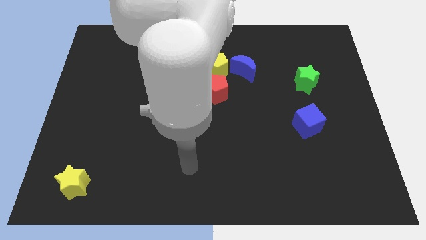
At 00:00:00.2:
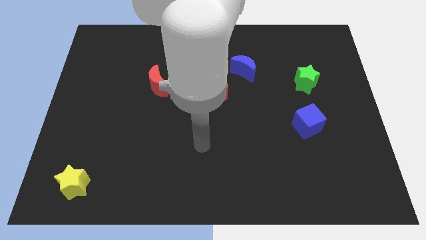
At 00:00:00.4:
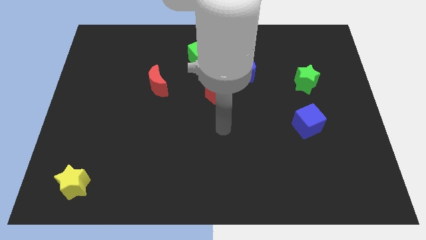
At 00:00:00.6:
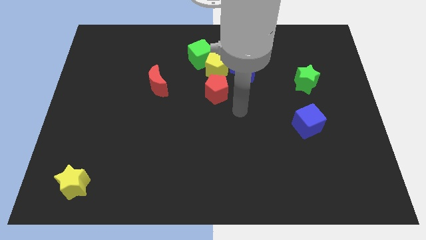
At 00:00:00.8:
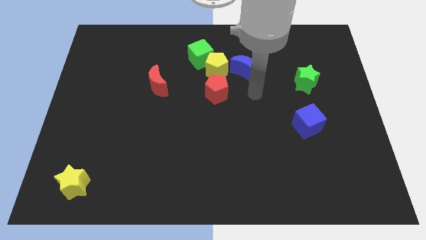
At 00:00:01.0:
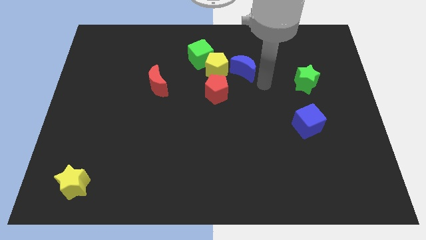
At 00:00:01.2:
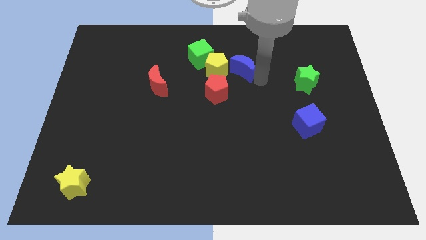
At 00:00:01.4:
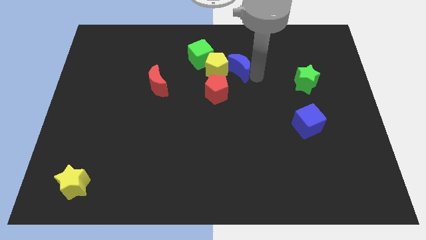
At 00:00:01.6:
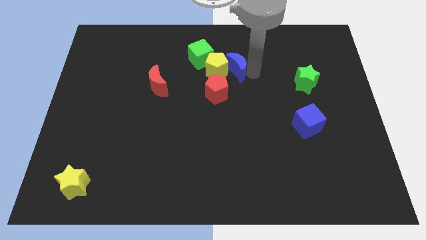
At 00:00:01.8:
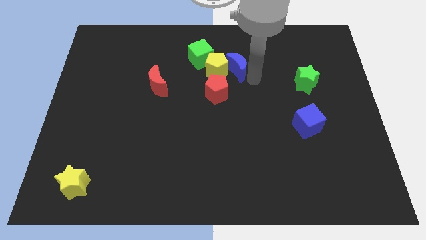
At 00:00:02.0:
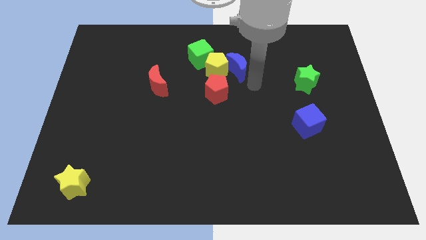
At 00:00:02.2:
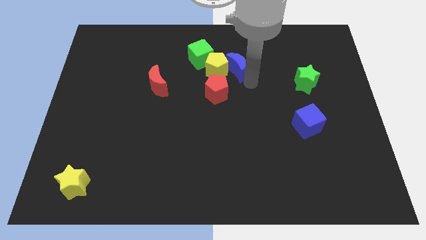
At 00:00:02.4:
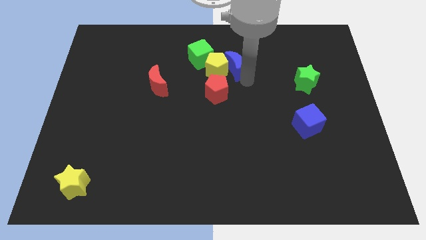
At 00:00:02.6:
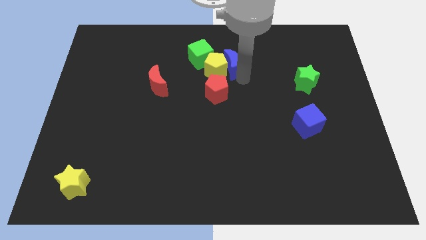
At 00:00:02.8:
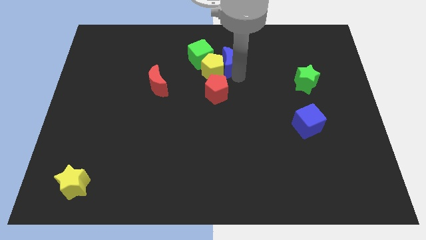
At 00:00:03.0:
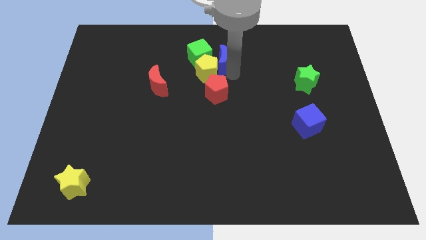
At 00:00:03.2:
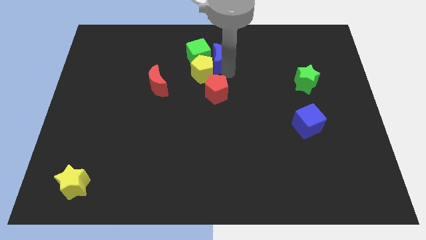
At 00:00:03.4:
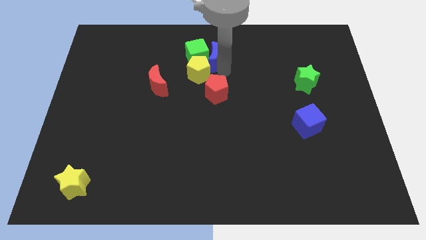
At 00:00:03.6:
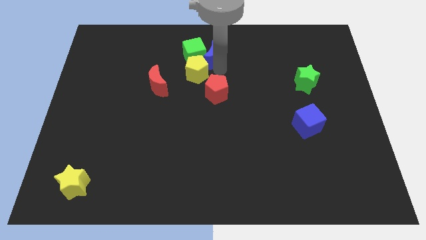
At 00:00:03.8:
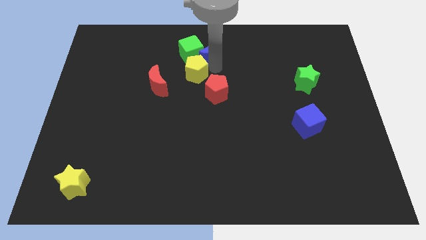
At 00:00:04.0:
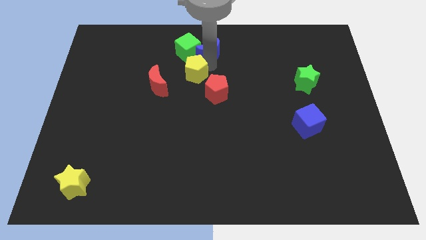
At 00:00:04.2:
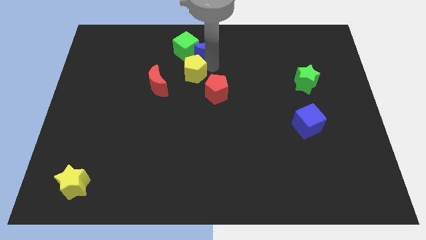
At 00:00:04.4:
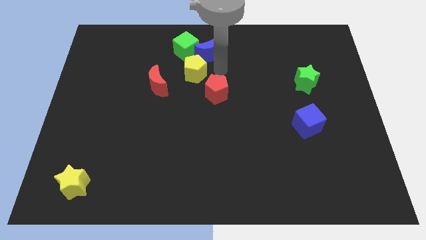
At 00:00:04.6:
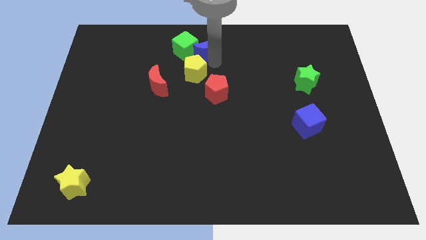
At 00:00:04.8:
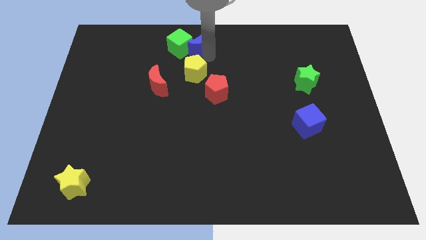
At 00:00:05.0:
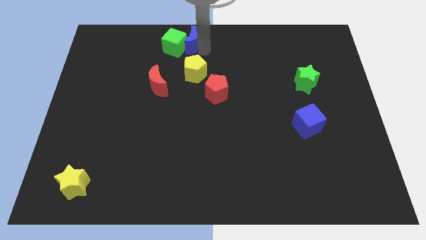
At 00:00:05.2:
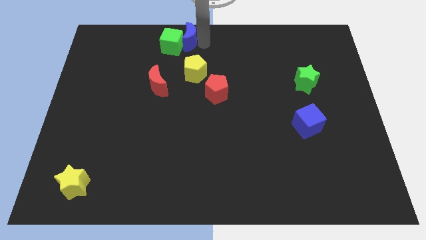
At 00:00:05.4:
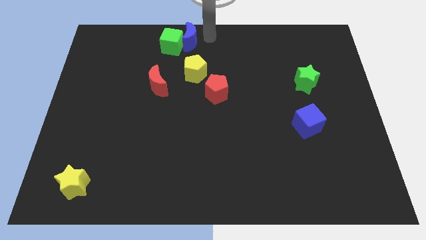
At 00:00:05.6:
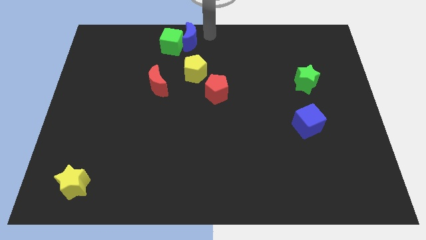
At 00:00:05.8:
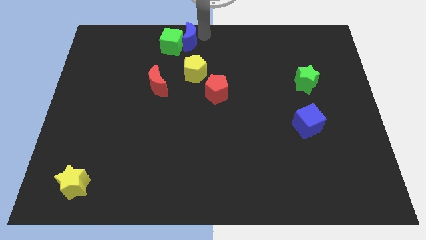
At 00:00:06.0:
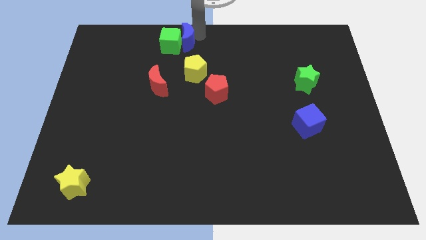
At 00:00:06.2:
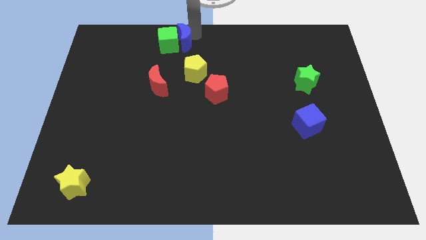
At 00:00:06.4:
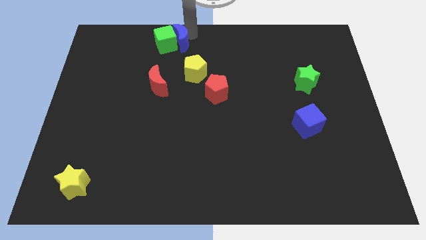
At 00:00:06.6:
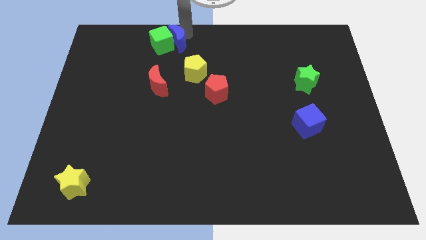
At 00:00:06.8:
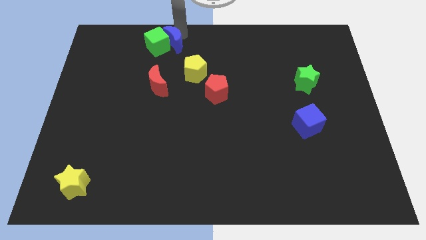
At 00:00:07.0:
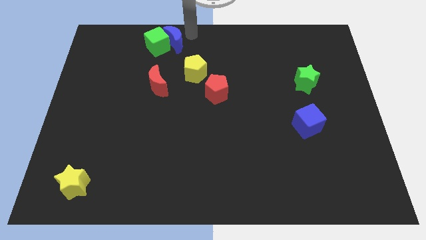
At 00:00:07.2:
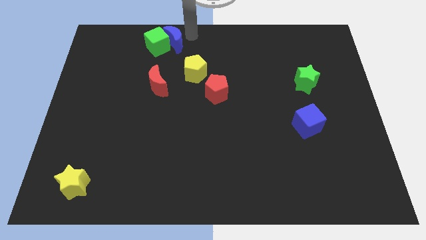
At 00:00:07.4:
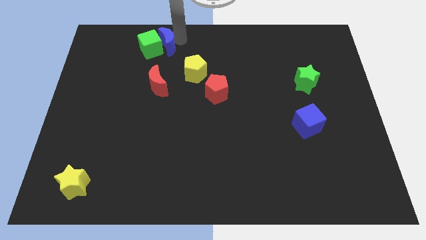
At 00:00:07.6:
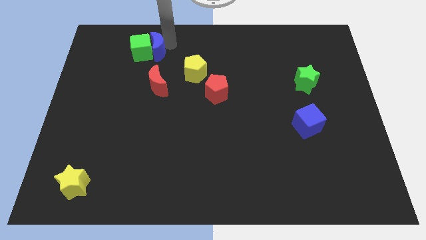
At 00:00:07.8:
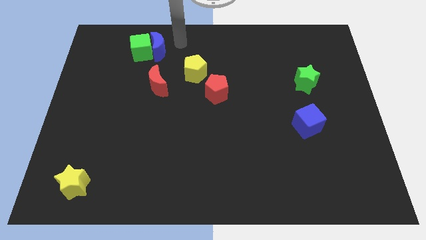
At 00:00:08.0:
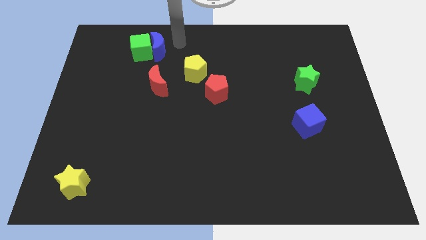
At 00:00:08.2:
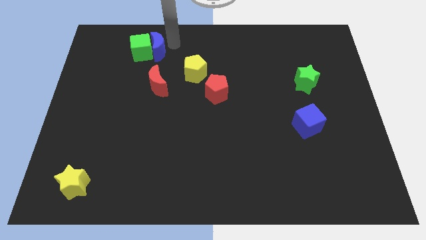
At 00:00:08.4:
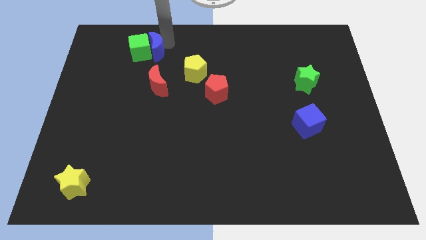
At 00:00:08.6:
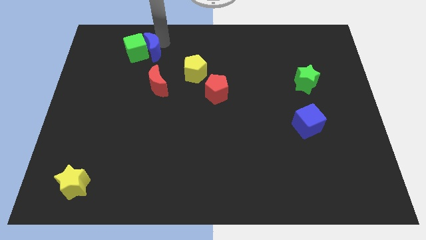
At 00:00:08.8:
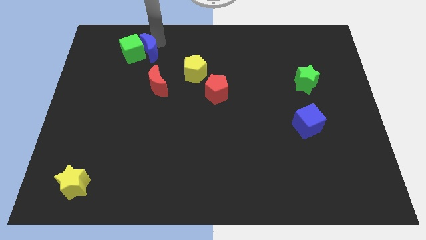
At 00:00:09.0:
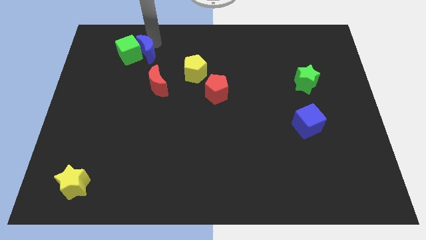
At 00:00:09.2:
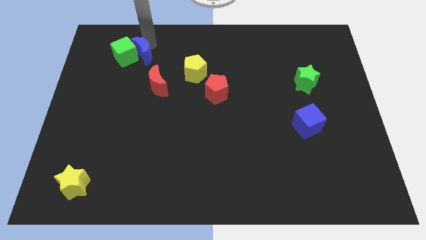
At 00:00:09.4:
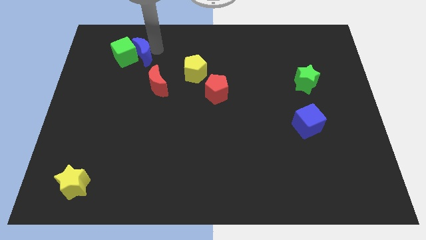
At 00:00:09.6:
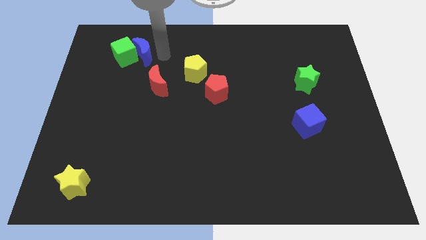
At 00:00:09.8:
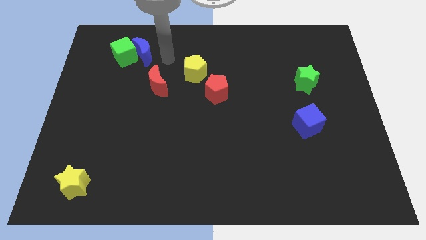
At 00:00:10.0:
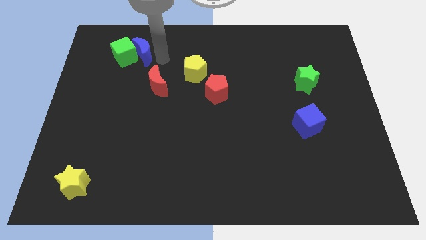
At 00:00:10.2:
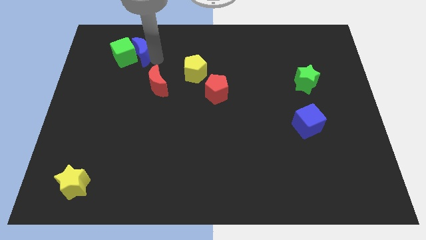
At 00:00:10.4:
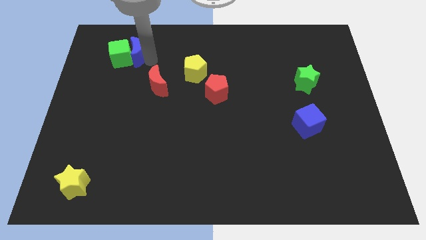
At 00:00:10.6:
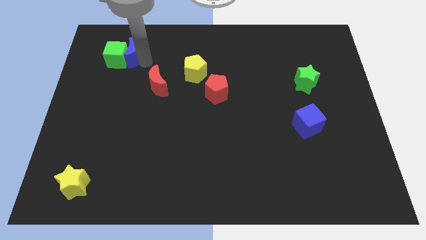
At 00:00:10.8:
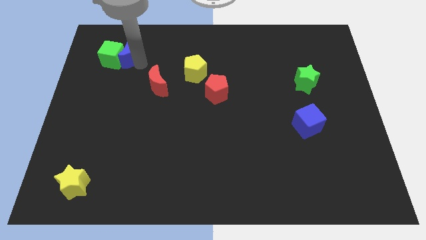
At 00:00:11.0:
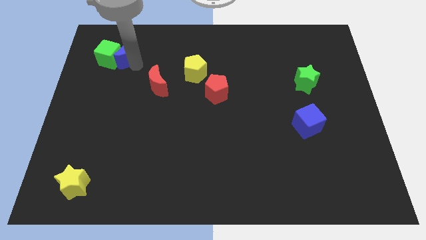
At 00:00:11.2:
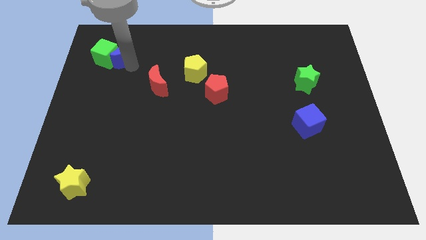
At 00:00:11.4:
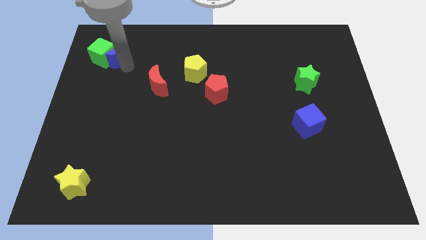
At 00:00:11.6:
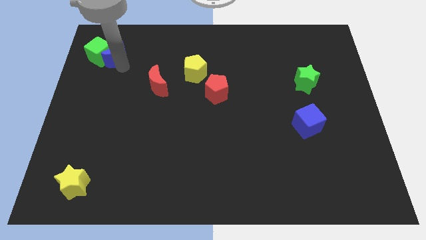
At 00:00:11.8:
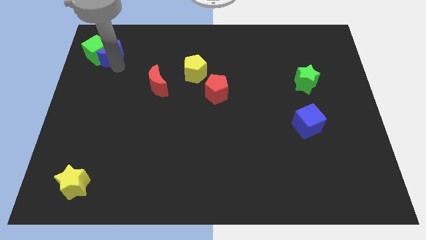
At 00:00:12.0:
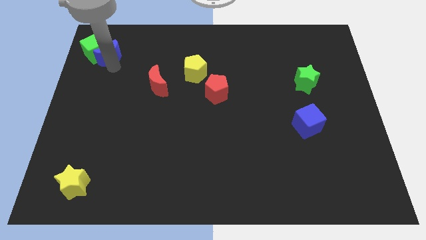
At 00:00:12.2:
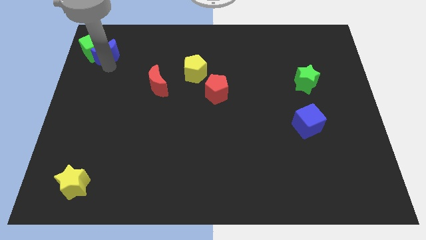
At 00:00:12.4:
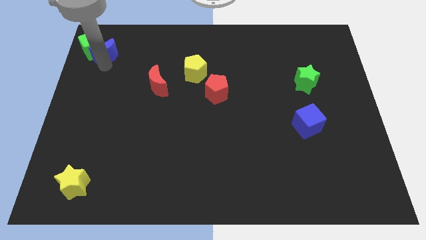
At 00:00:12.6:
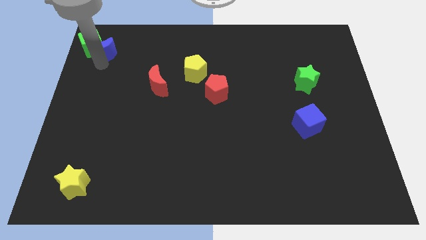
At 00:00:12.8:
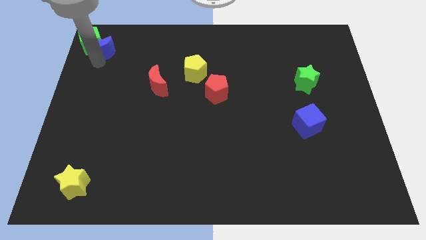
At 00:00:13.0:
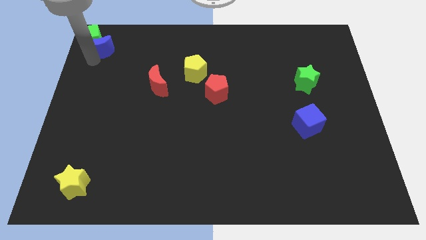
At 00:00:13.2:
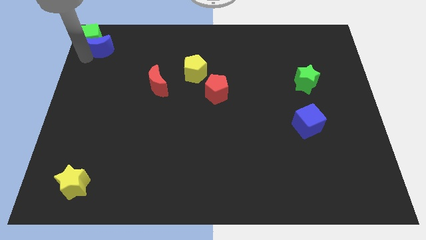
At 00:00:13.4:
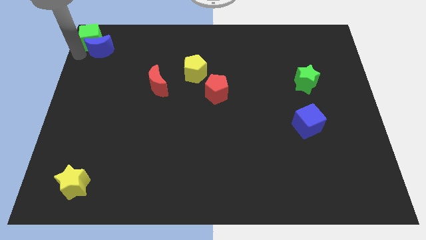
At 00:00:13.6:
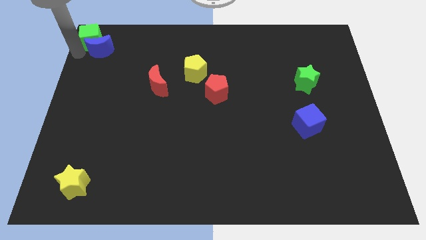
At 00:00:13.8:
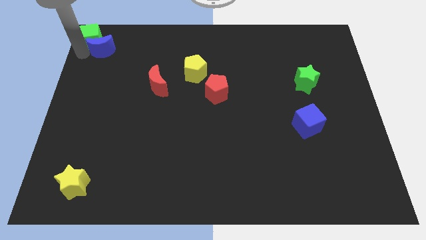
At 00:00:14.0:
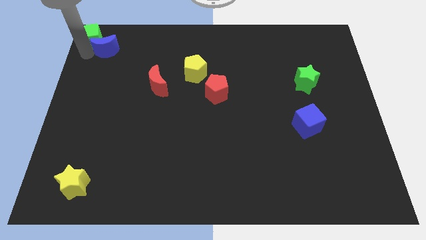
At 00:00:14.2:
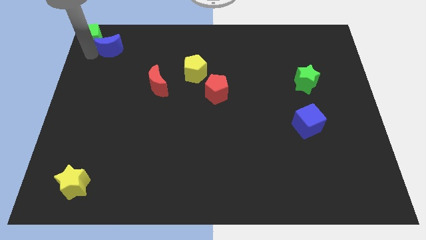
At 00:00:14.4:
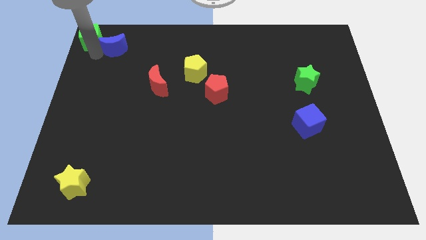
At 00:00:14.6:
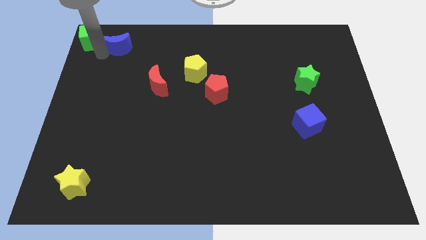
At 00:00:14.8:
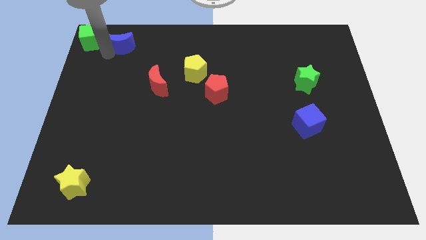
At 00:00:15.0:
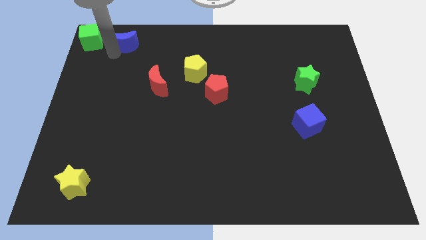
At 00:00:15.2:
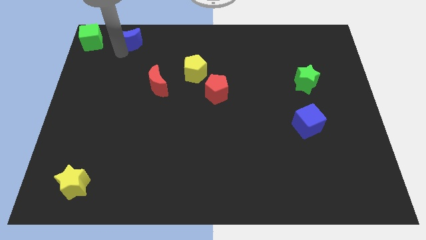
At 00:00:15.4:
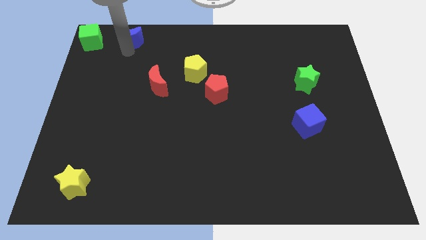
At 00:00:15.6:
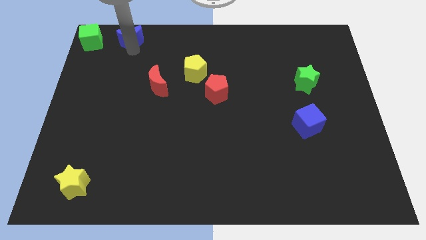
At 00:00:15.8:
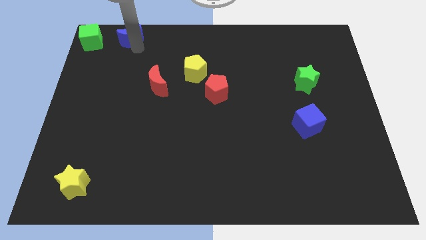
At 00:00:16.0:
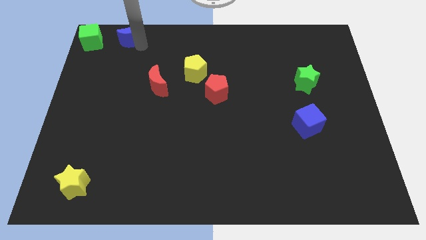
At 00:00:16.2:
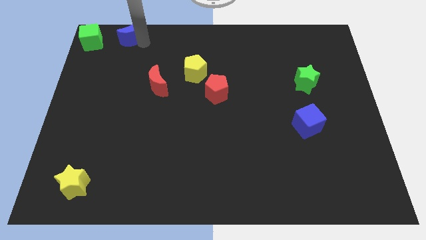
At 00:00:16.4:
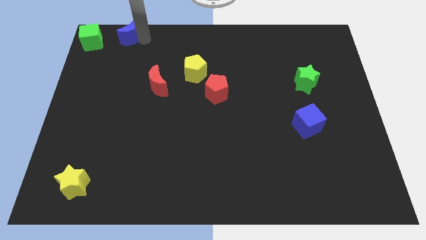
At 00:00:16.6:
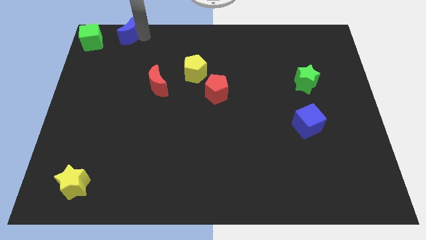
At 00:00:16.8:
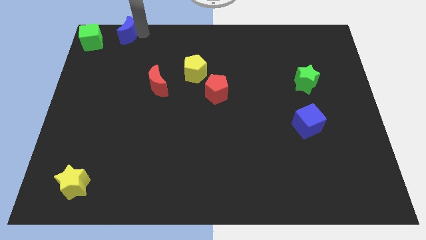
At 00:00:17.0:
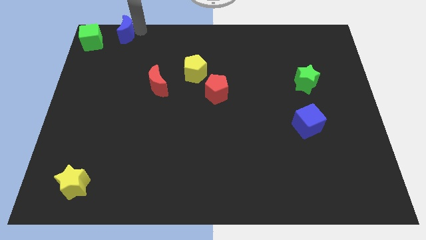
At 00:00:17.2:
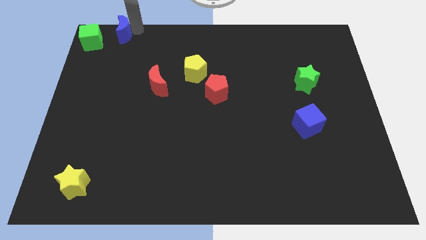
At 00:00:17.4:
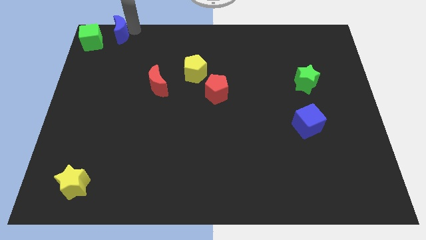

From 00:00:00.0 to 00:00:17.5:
put the blue moon to the top left
